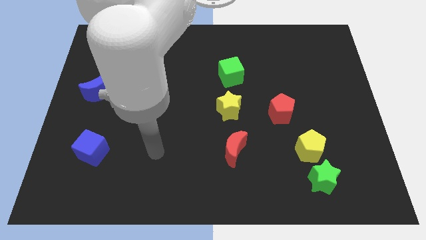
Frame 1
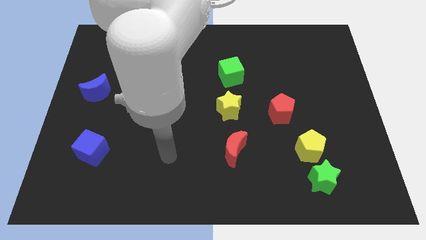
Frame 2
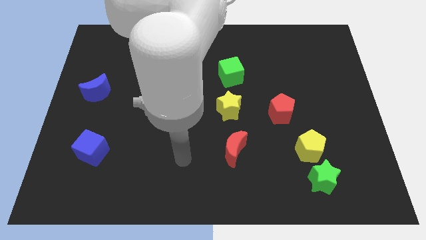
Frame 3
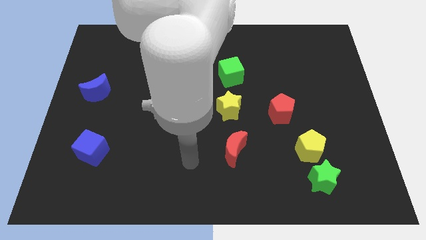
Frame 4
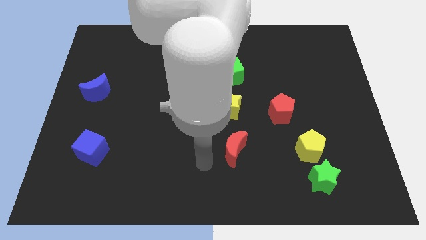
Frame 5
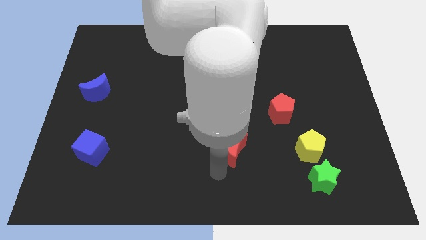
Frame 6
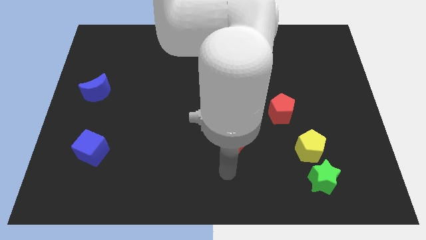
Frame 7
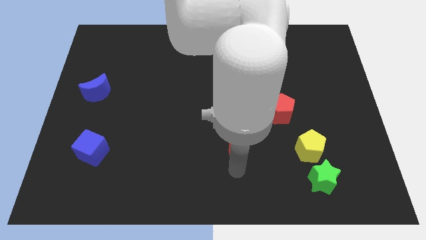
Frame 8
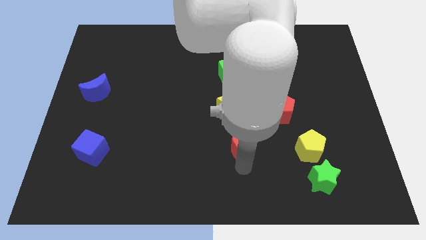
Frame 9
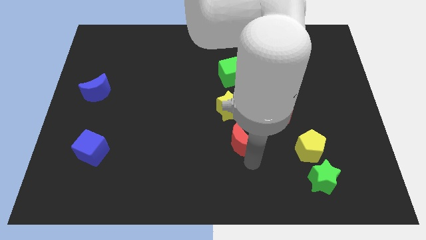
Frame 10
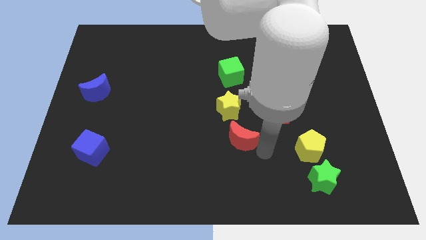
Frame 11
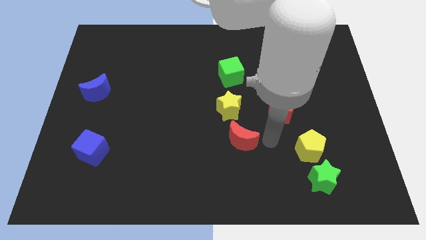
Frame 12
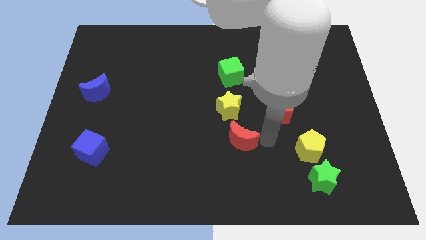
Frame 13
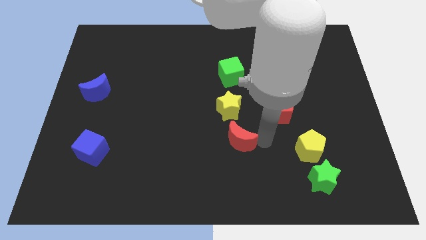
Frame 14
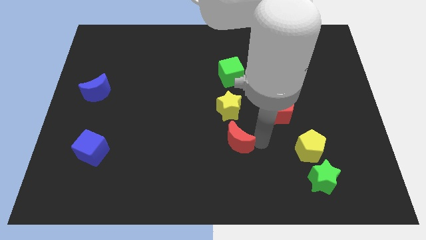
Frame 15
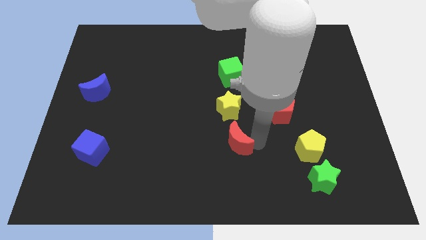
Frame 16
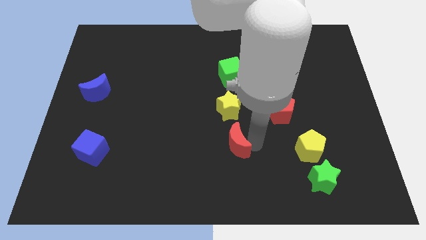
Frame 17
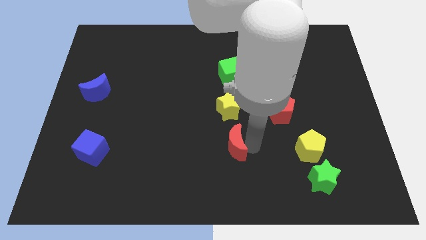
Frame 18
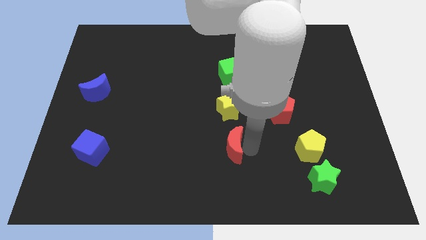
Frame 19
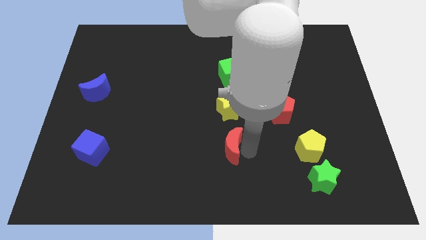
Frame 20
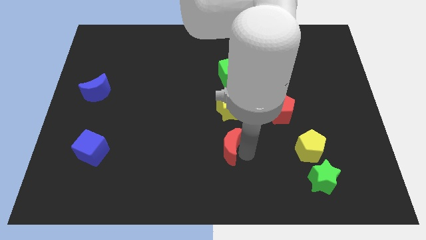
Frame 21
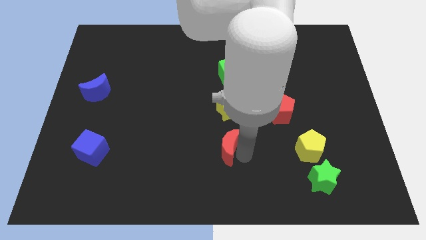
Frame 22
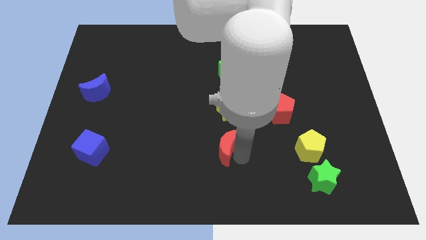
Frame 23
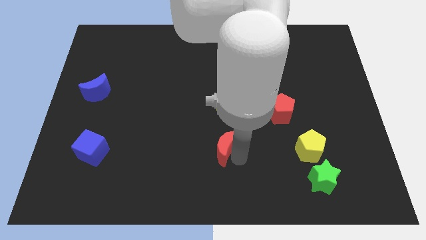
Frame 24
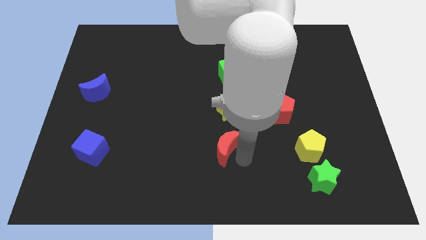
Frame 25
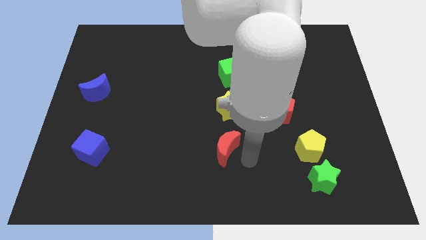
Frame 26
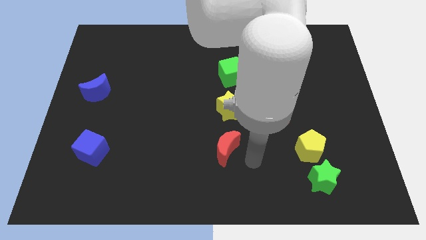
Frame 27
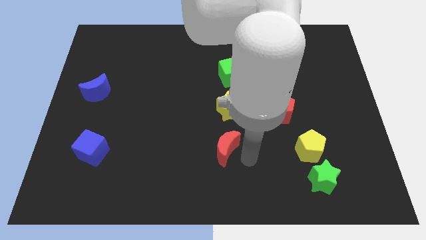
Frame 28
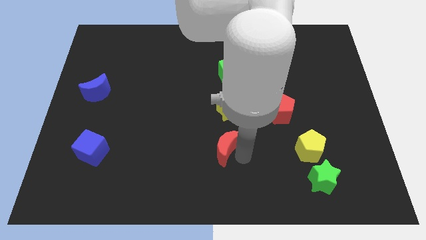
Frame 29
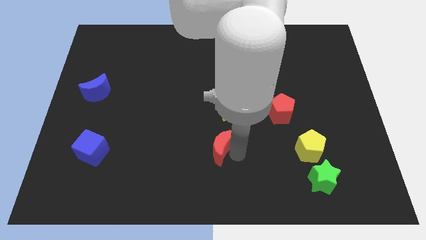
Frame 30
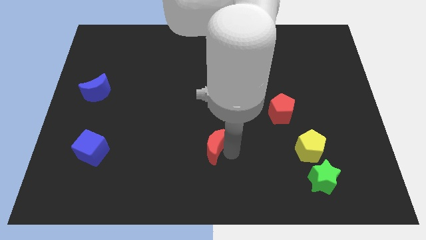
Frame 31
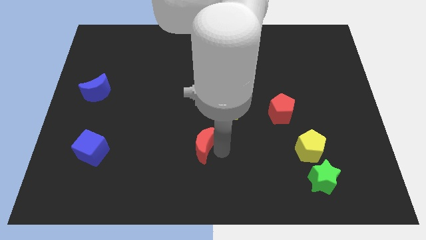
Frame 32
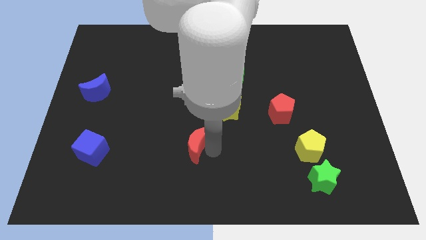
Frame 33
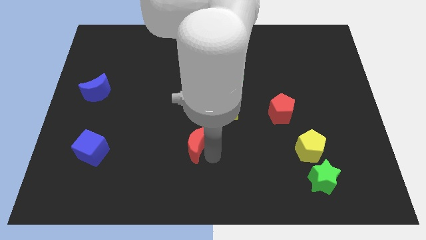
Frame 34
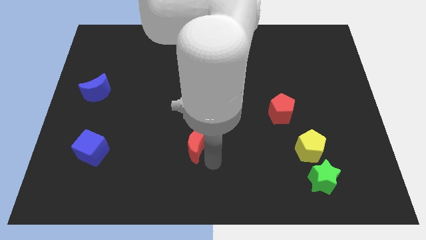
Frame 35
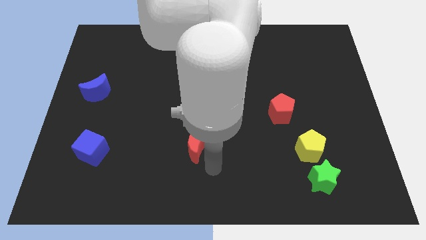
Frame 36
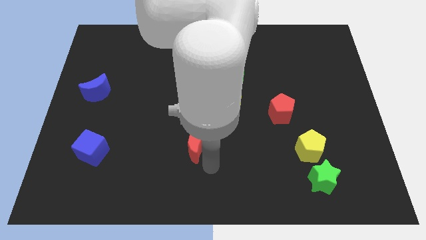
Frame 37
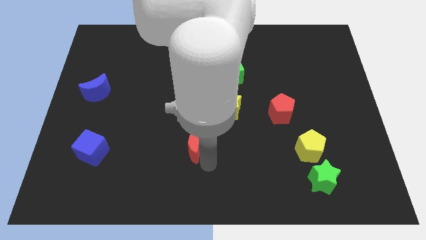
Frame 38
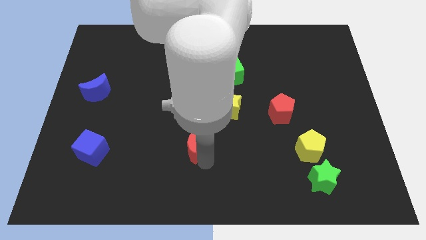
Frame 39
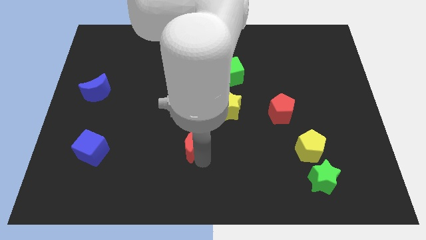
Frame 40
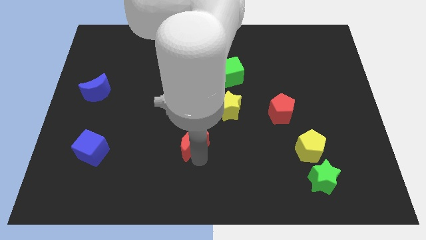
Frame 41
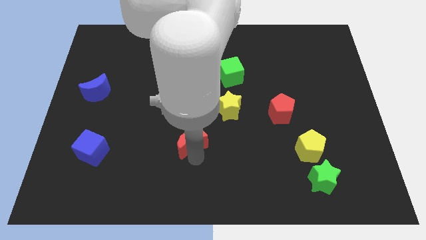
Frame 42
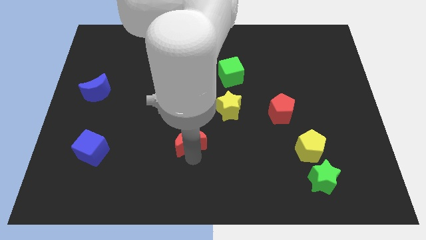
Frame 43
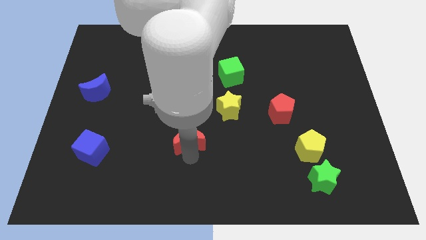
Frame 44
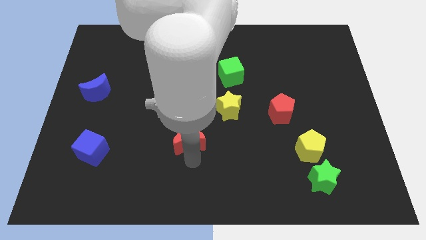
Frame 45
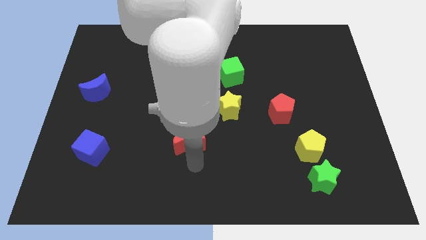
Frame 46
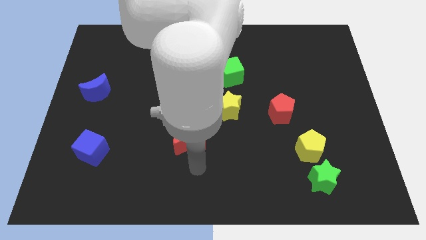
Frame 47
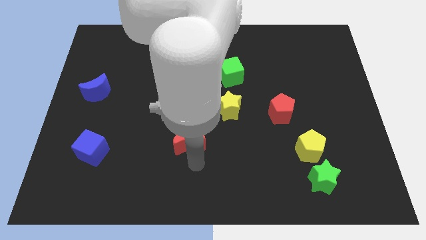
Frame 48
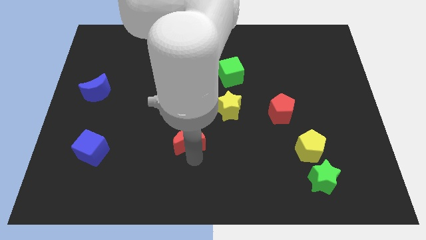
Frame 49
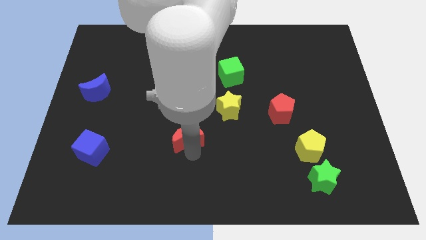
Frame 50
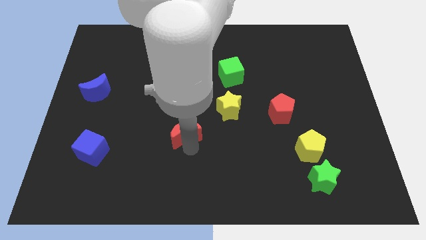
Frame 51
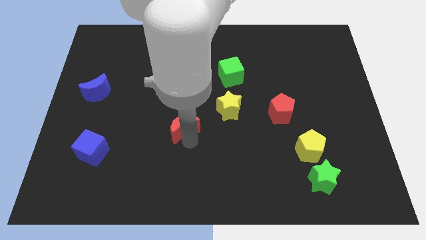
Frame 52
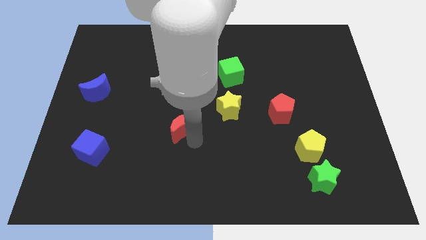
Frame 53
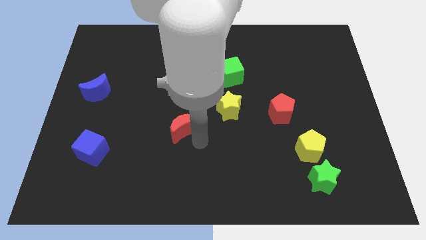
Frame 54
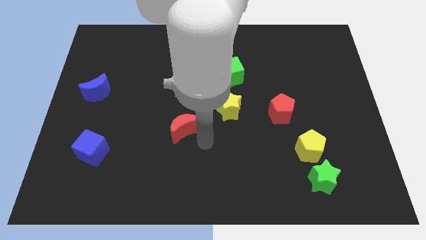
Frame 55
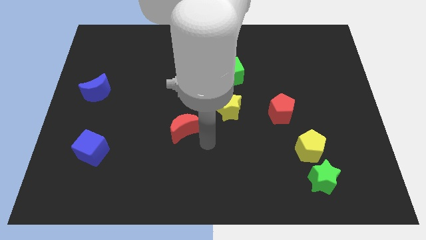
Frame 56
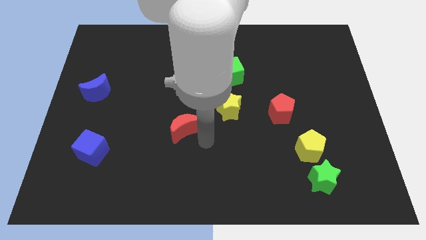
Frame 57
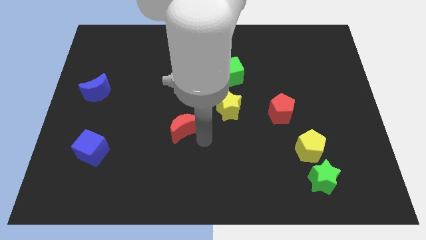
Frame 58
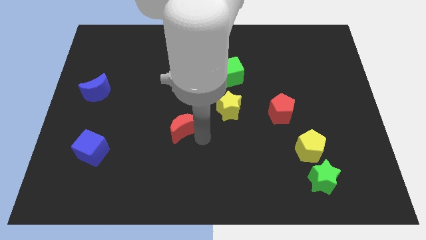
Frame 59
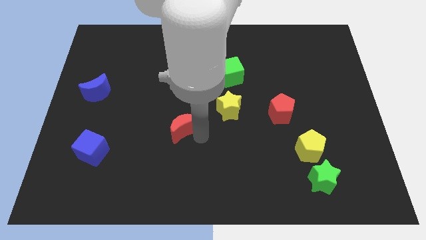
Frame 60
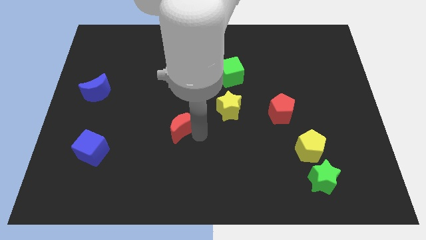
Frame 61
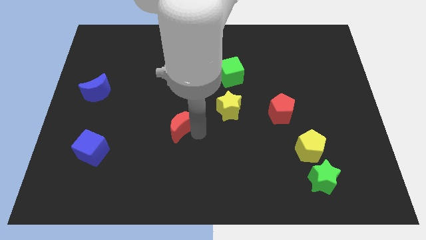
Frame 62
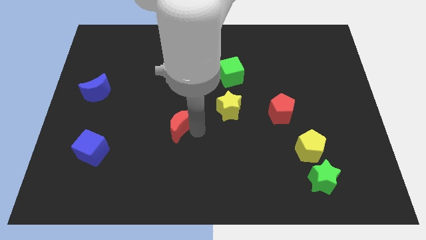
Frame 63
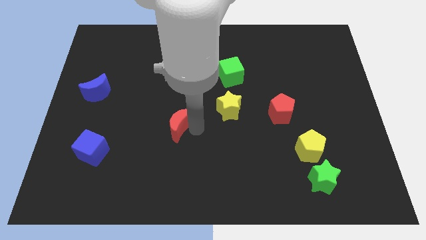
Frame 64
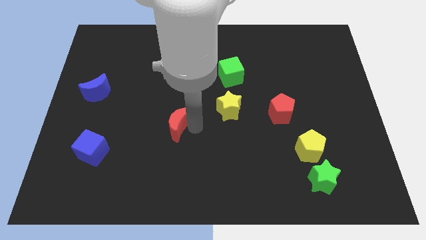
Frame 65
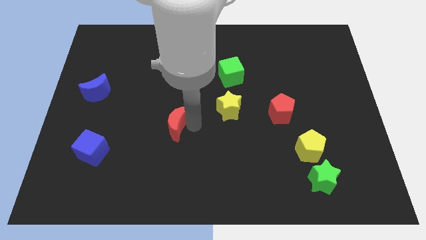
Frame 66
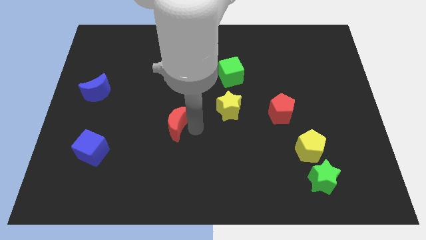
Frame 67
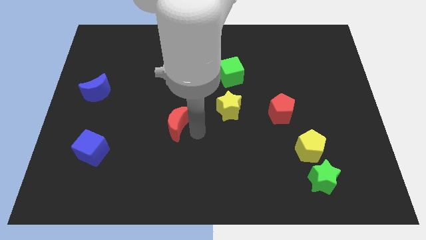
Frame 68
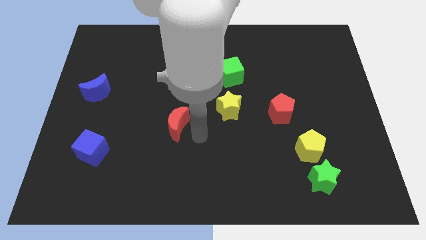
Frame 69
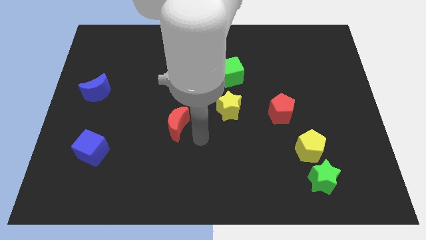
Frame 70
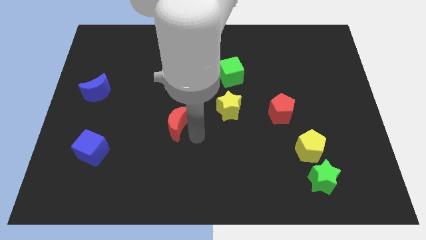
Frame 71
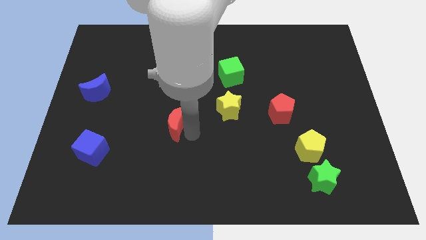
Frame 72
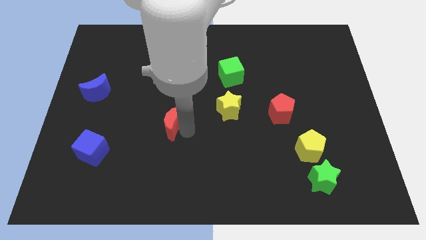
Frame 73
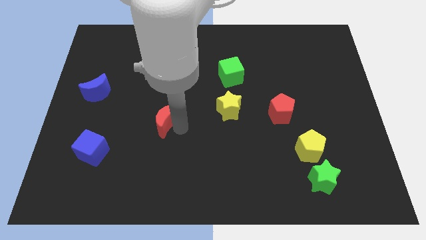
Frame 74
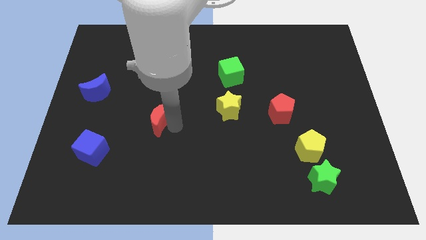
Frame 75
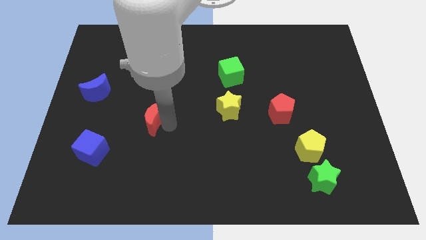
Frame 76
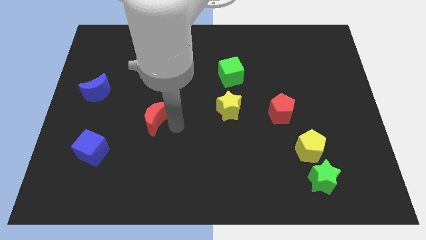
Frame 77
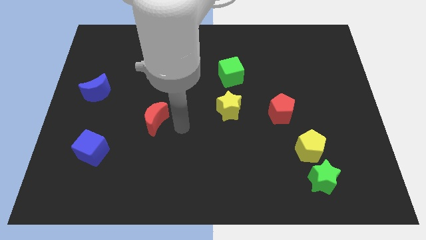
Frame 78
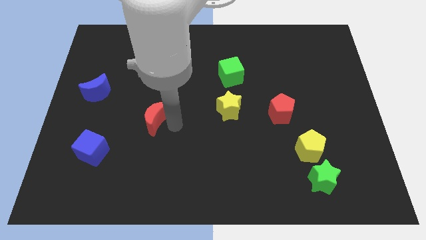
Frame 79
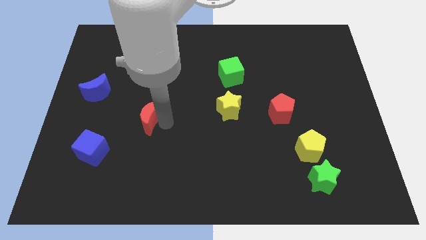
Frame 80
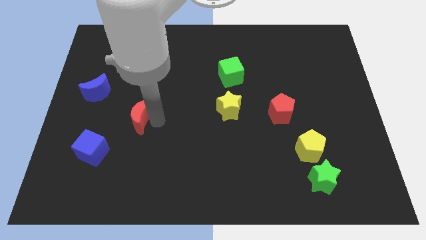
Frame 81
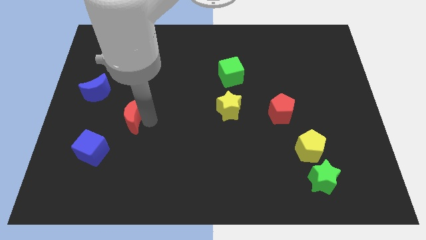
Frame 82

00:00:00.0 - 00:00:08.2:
move the red moon to the bottom right side of the blue moon
